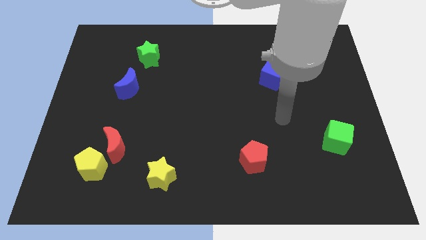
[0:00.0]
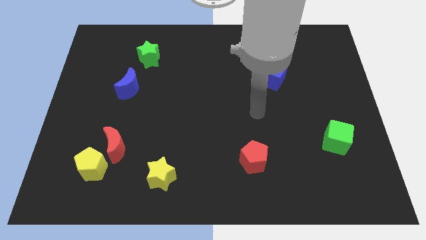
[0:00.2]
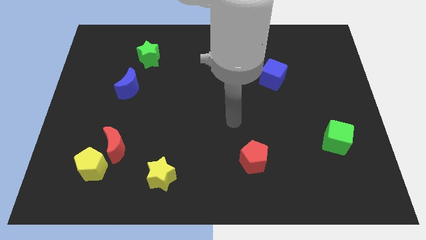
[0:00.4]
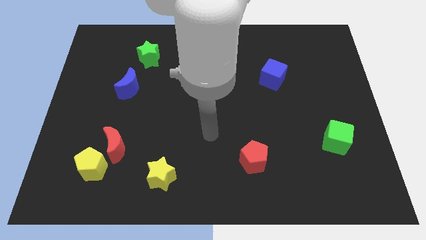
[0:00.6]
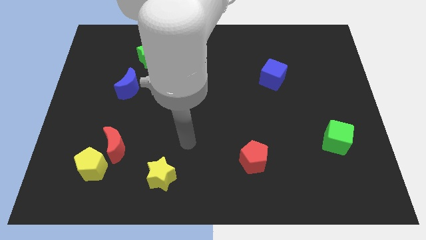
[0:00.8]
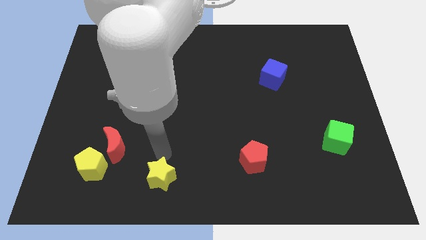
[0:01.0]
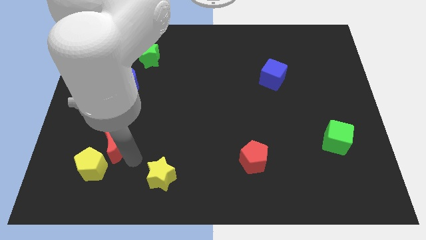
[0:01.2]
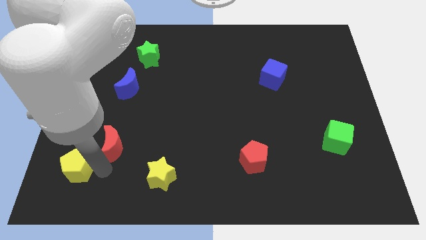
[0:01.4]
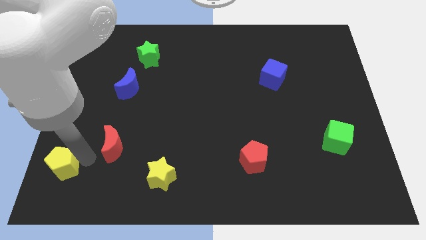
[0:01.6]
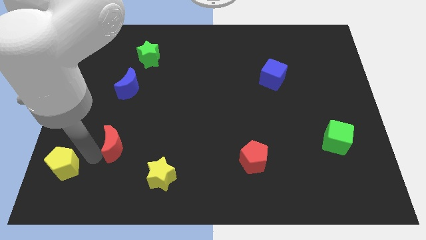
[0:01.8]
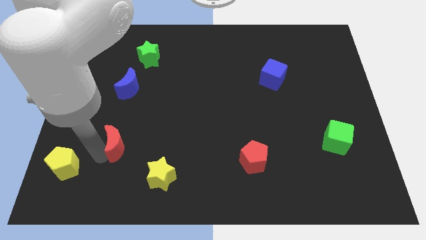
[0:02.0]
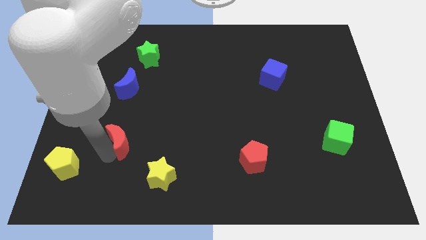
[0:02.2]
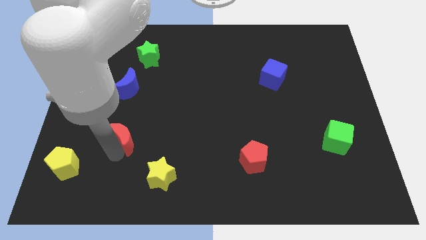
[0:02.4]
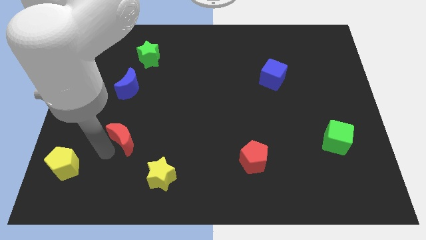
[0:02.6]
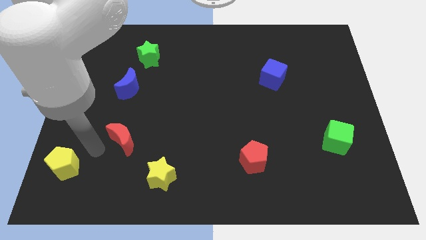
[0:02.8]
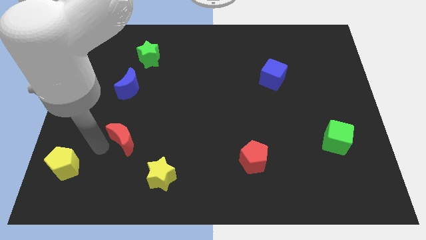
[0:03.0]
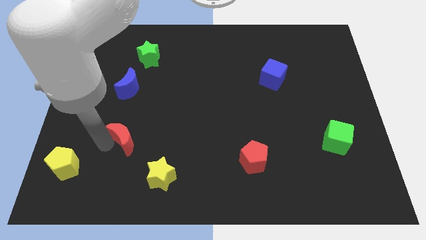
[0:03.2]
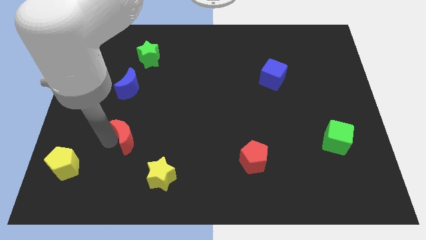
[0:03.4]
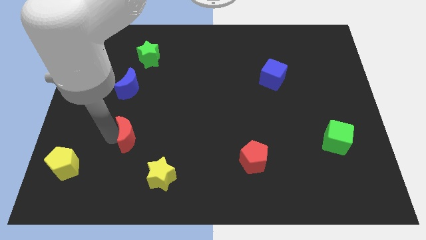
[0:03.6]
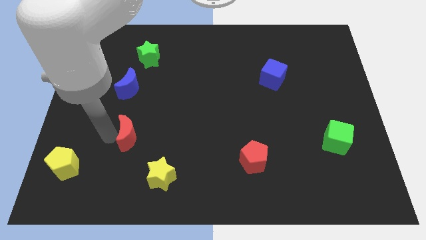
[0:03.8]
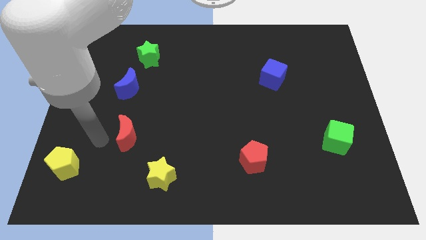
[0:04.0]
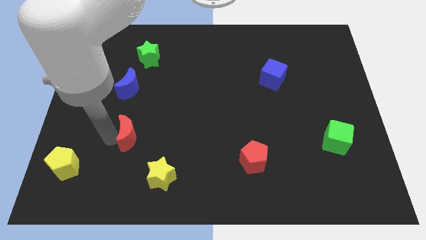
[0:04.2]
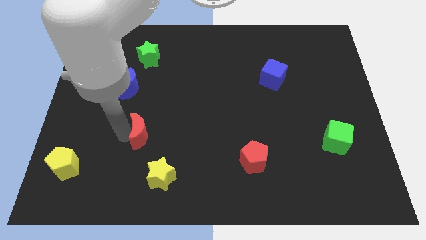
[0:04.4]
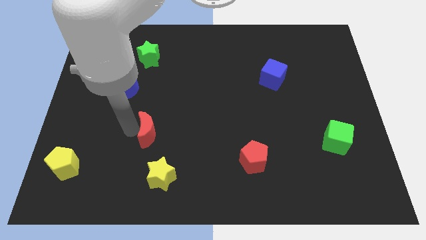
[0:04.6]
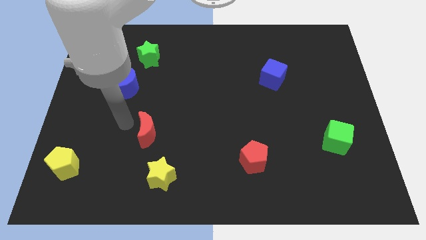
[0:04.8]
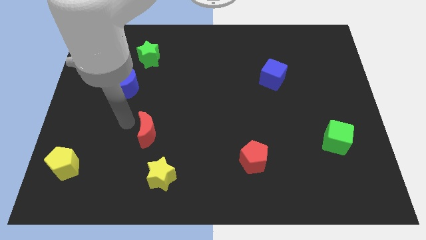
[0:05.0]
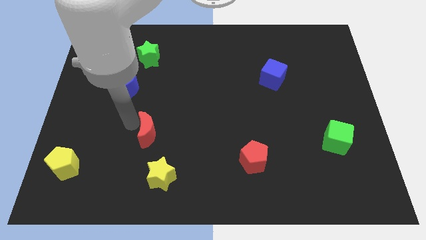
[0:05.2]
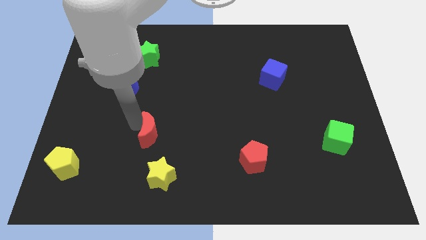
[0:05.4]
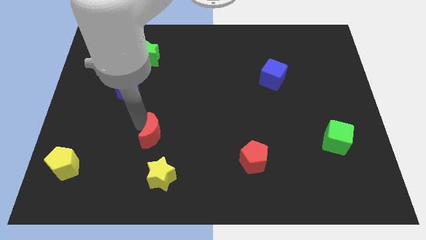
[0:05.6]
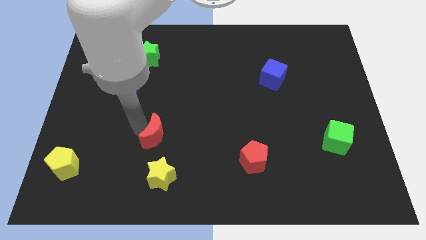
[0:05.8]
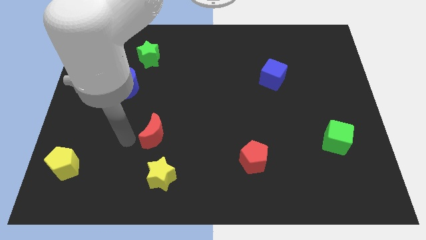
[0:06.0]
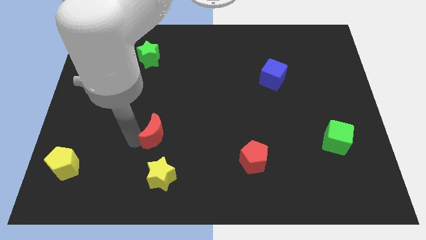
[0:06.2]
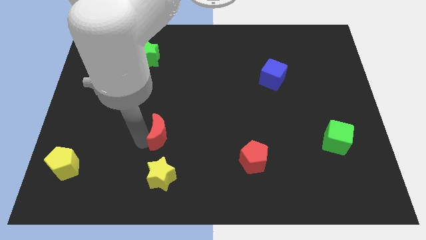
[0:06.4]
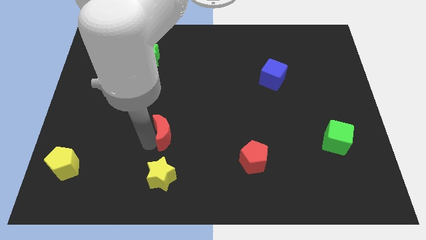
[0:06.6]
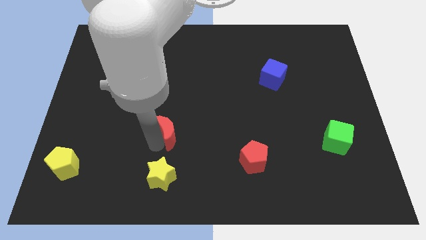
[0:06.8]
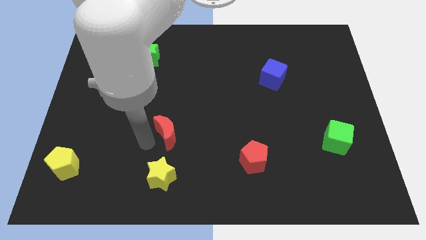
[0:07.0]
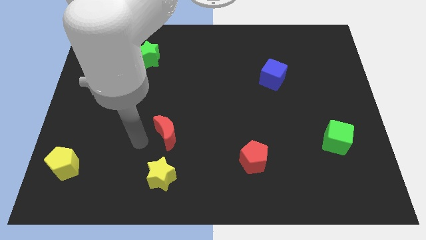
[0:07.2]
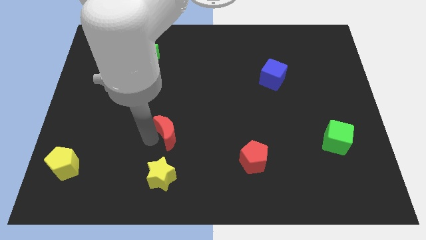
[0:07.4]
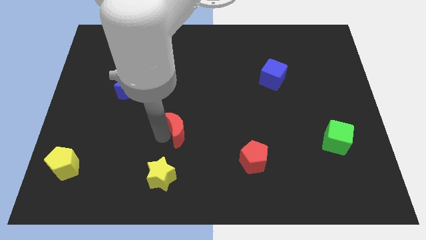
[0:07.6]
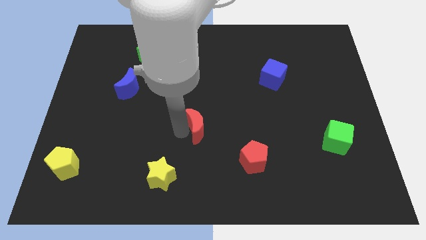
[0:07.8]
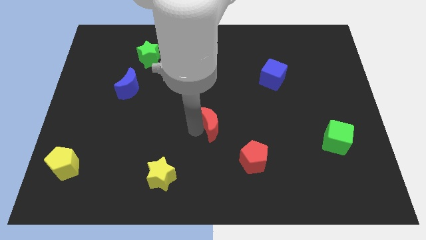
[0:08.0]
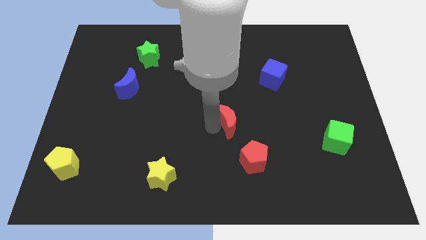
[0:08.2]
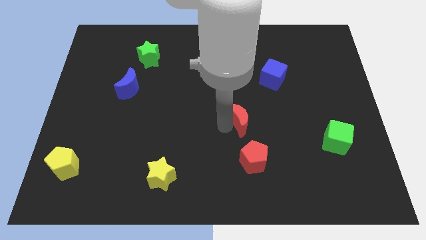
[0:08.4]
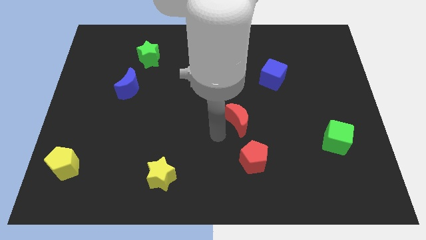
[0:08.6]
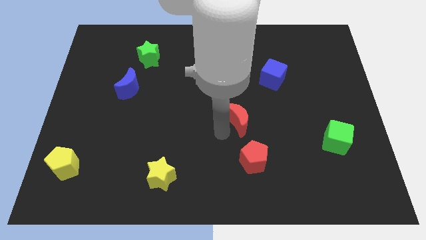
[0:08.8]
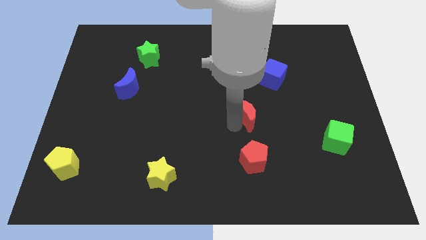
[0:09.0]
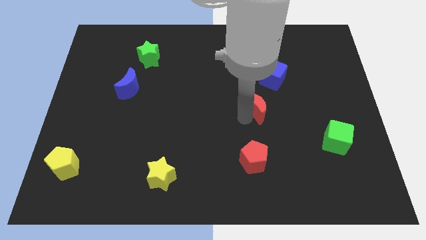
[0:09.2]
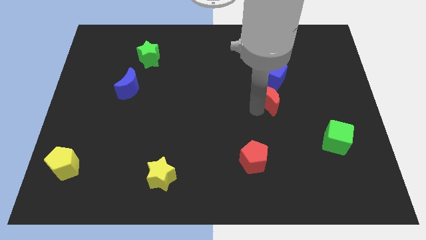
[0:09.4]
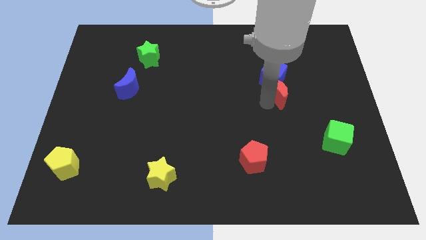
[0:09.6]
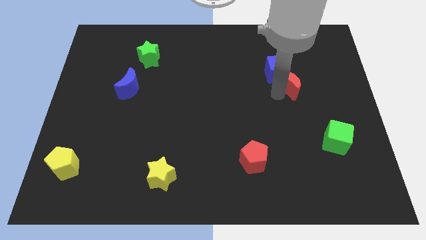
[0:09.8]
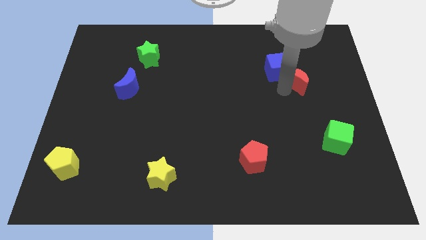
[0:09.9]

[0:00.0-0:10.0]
move the red moon just right of the blue cube

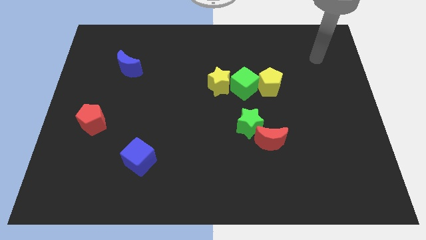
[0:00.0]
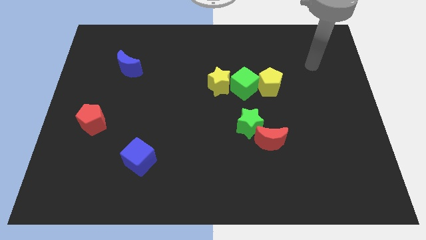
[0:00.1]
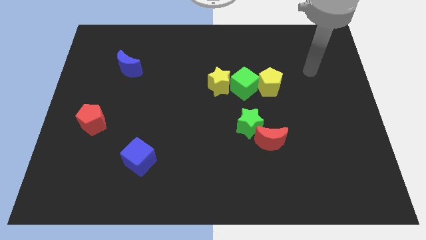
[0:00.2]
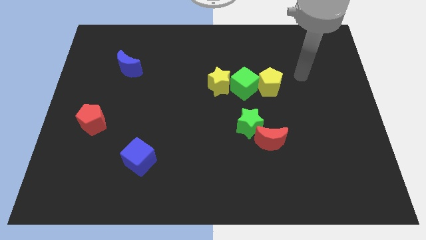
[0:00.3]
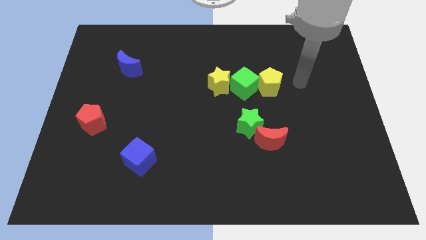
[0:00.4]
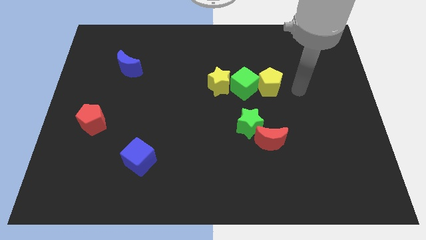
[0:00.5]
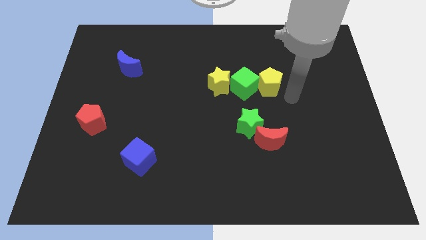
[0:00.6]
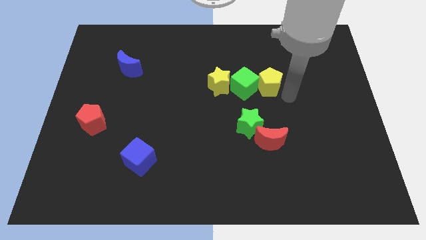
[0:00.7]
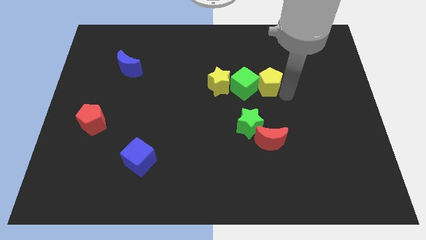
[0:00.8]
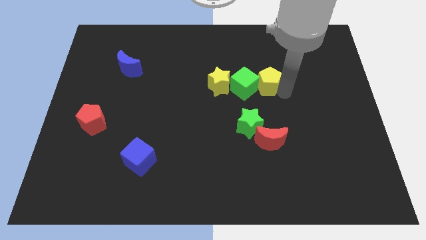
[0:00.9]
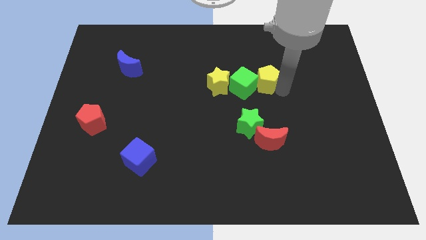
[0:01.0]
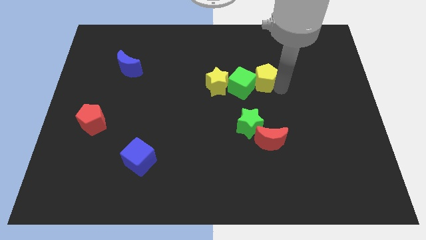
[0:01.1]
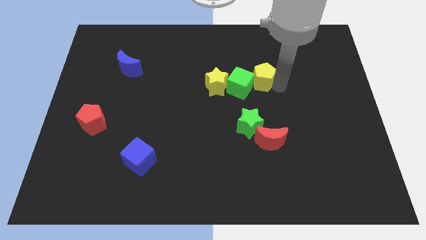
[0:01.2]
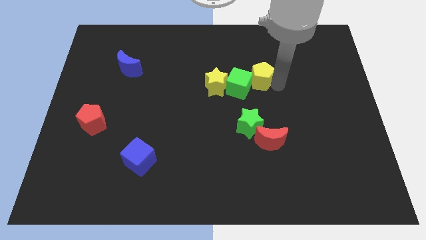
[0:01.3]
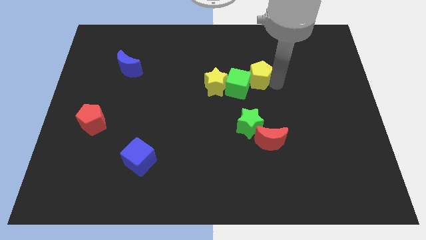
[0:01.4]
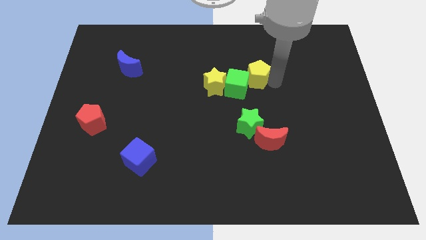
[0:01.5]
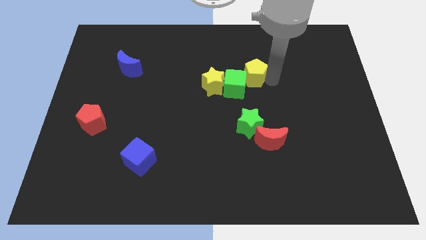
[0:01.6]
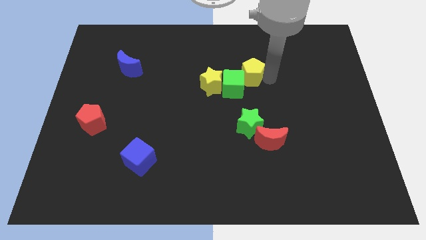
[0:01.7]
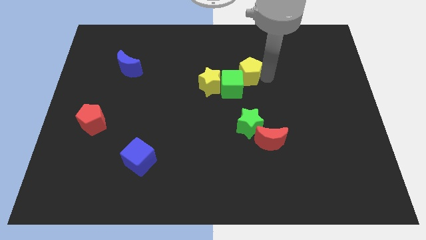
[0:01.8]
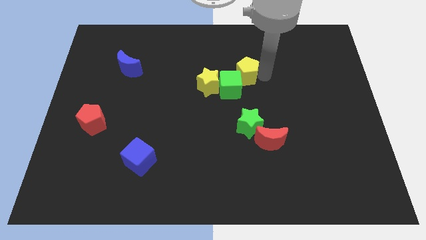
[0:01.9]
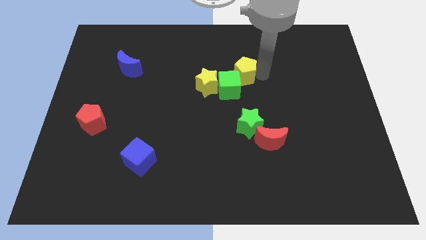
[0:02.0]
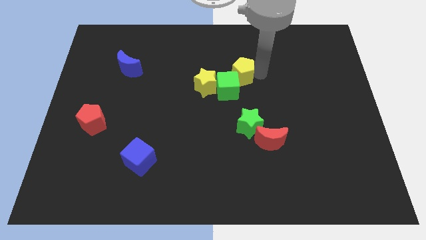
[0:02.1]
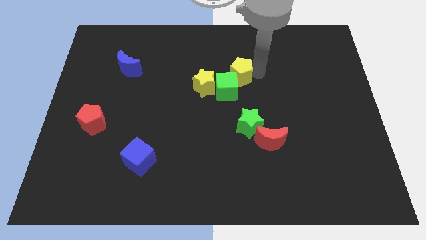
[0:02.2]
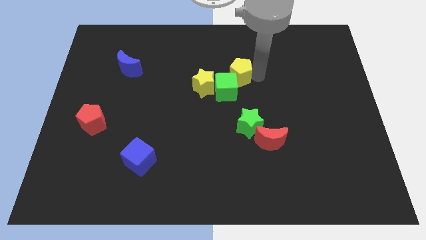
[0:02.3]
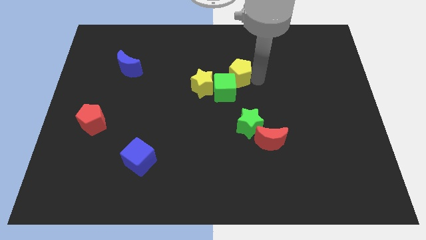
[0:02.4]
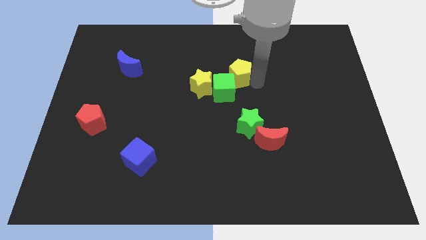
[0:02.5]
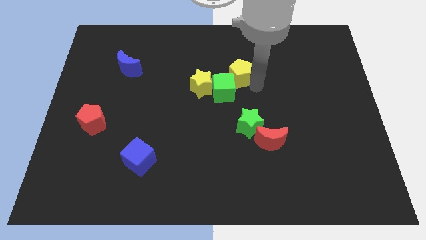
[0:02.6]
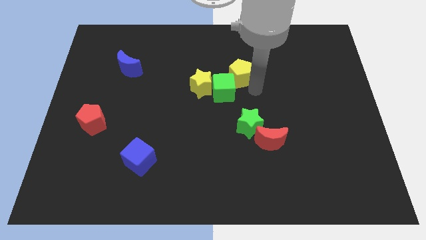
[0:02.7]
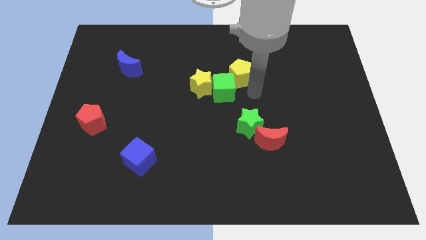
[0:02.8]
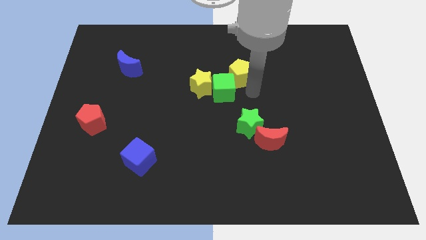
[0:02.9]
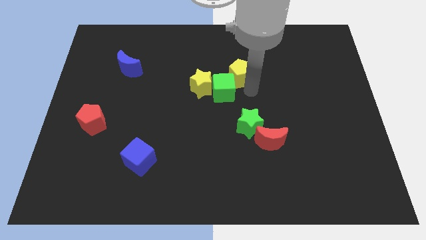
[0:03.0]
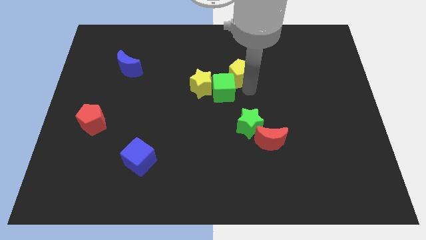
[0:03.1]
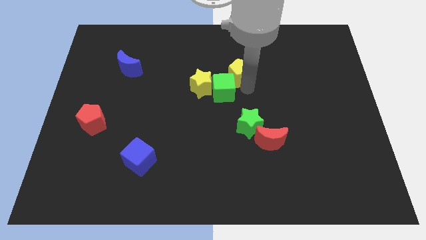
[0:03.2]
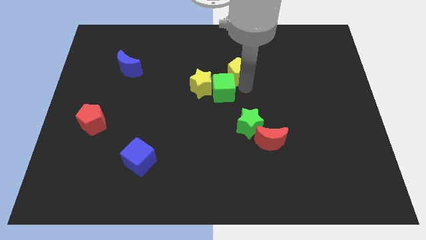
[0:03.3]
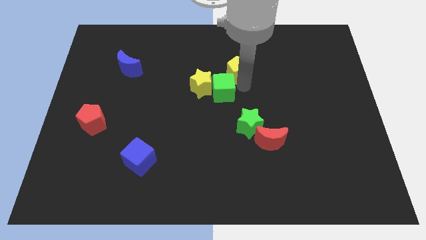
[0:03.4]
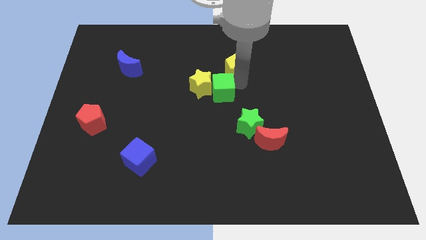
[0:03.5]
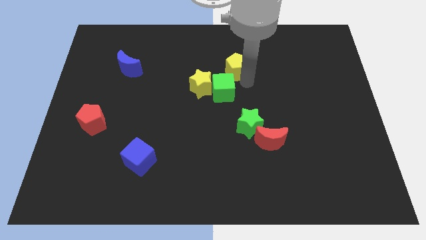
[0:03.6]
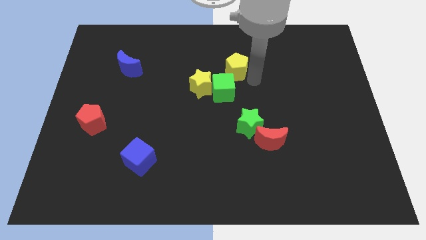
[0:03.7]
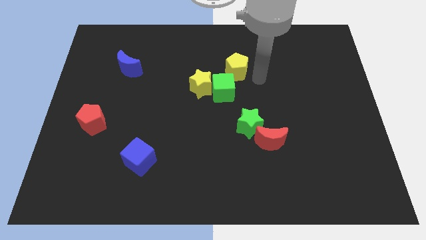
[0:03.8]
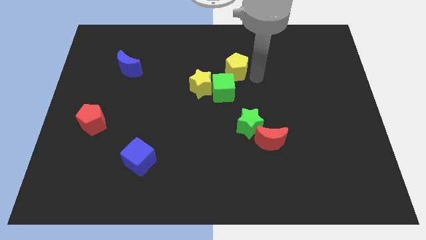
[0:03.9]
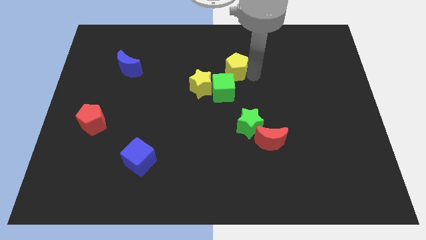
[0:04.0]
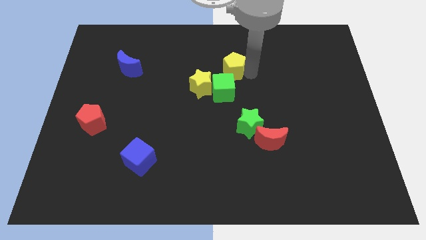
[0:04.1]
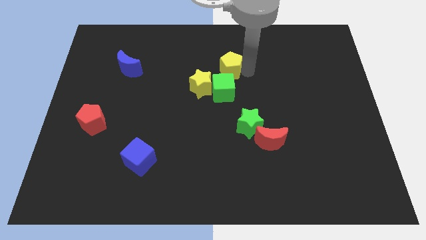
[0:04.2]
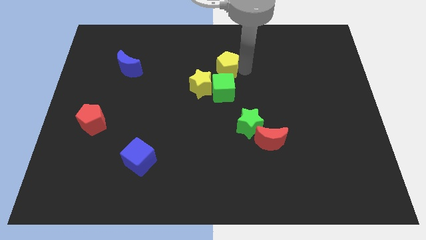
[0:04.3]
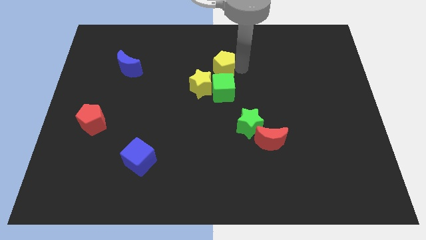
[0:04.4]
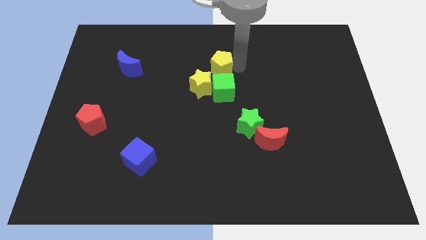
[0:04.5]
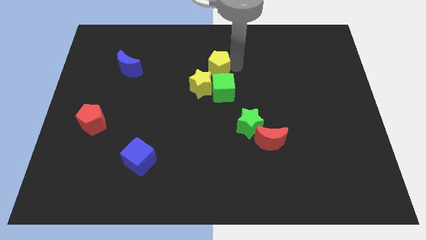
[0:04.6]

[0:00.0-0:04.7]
slide the yellow pentagon above the yellow star
